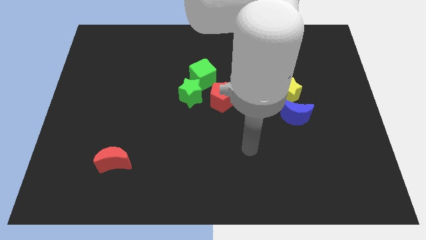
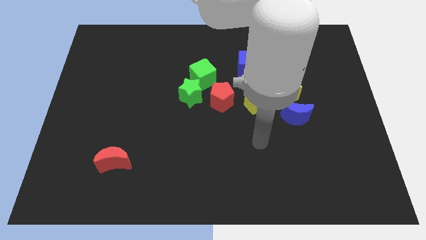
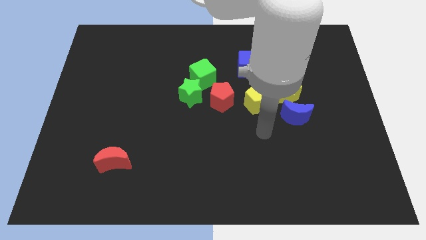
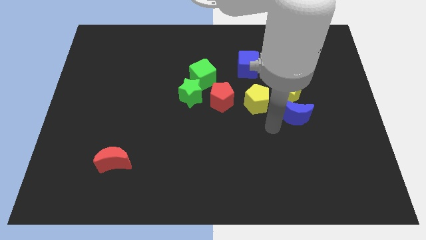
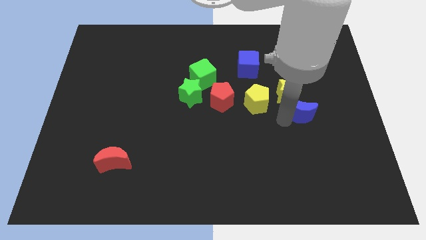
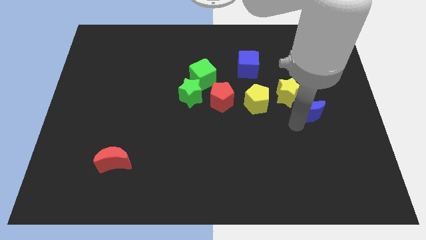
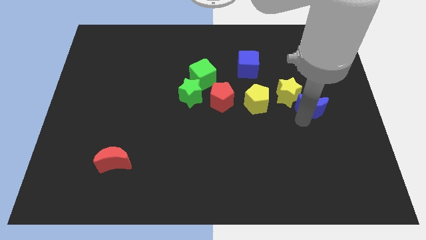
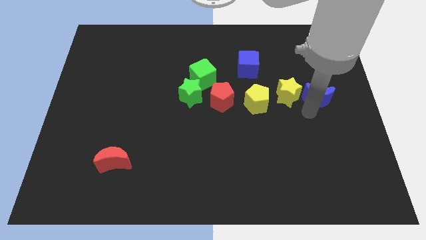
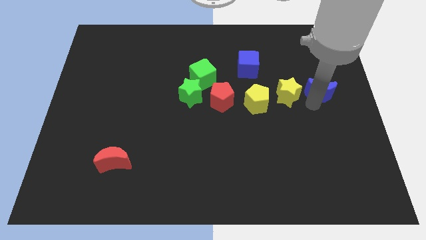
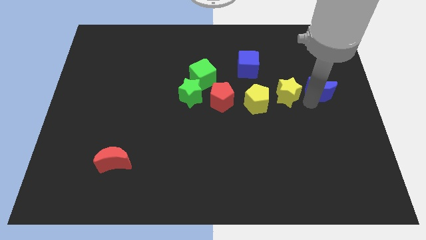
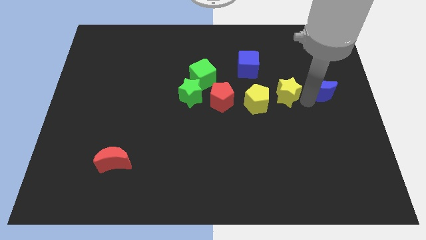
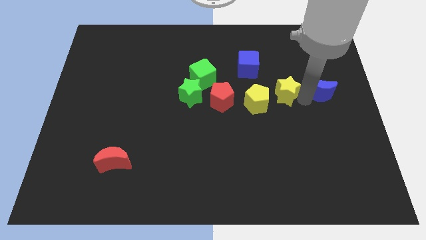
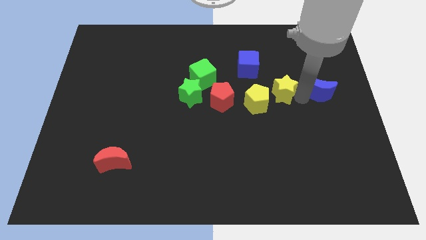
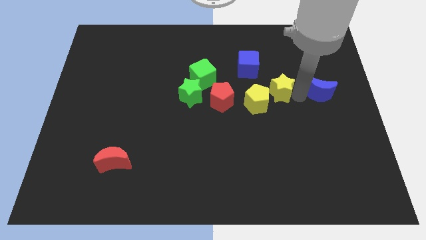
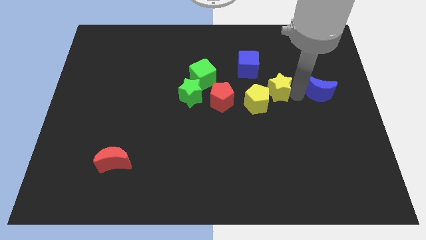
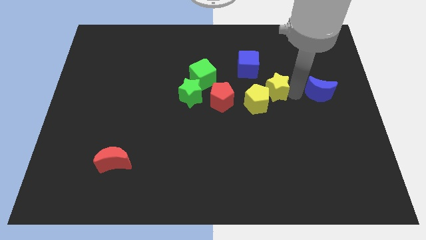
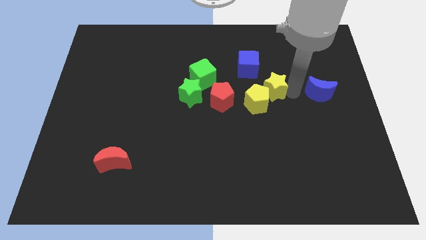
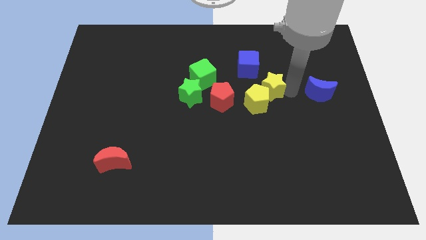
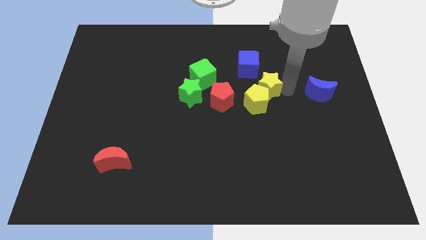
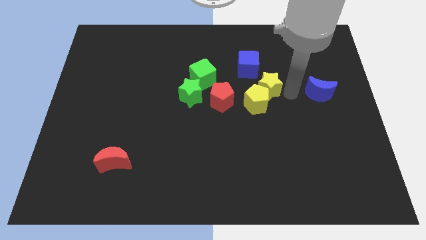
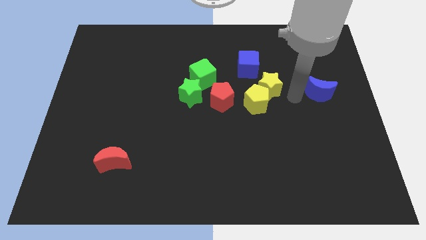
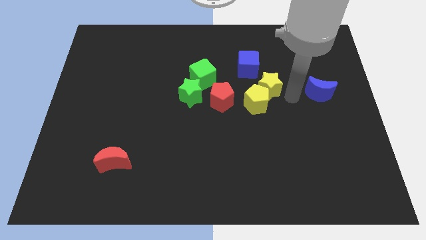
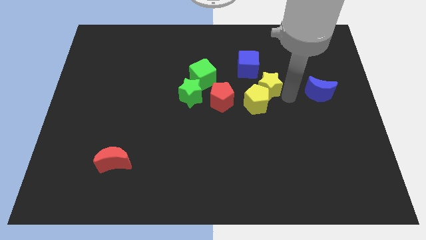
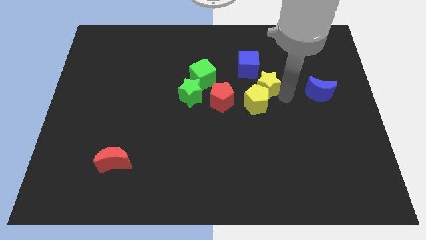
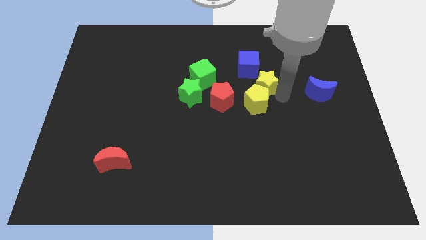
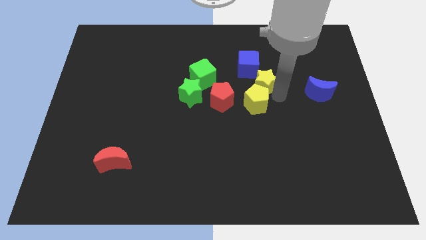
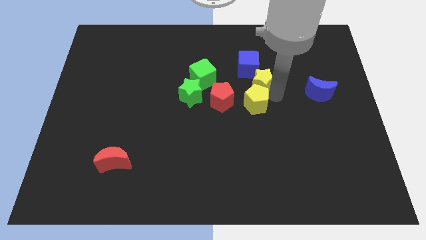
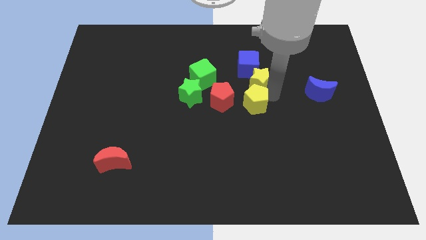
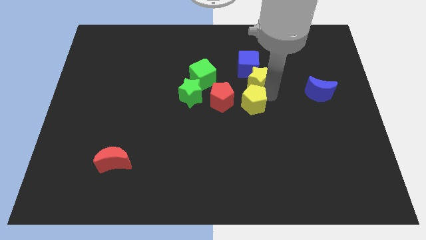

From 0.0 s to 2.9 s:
push the yellow star diagonally up and to the left slightly

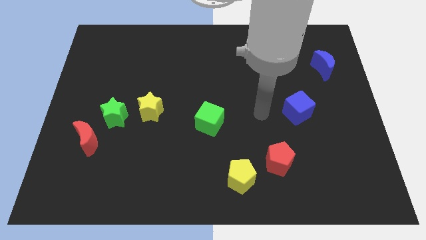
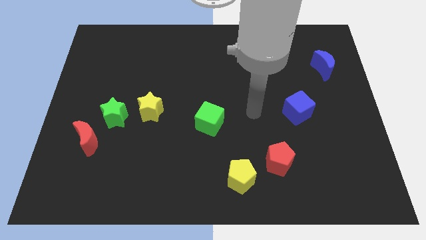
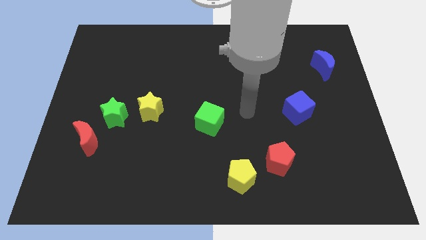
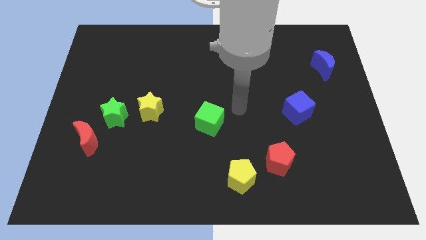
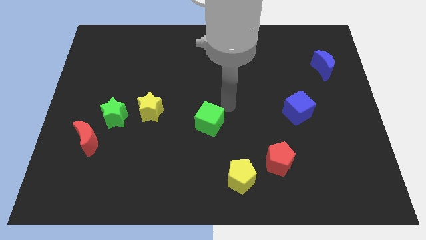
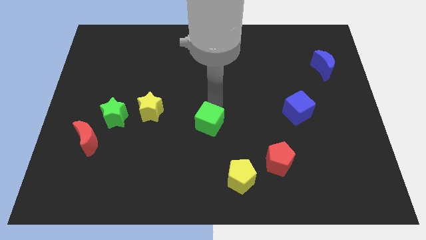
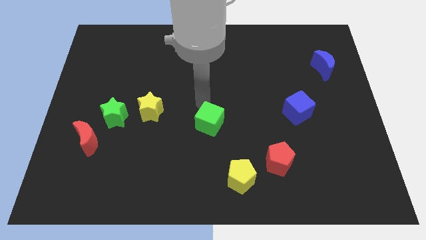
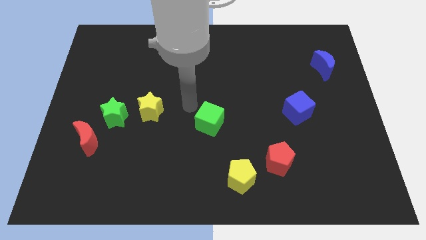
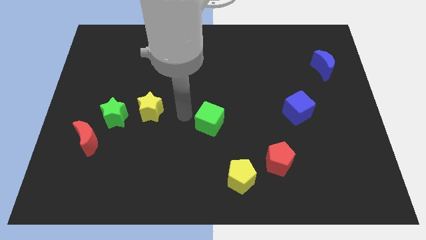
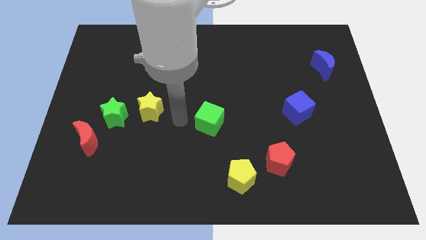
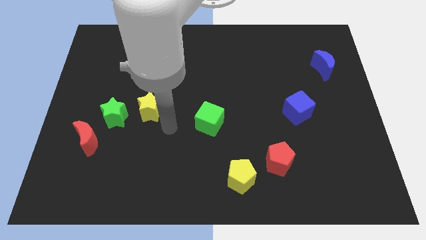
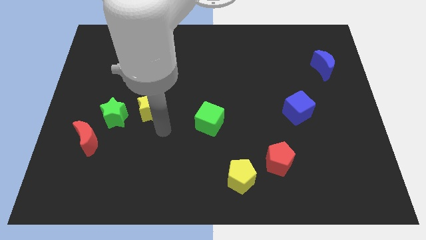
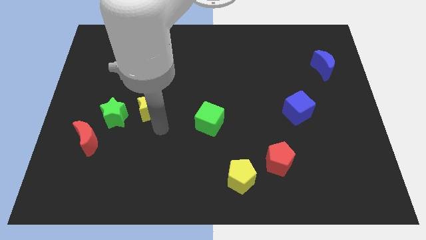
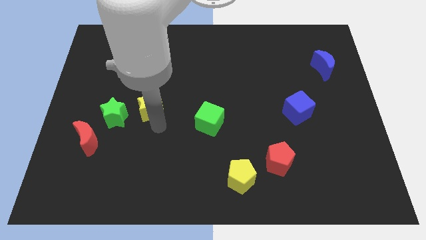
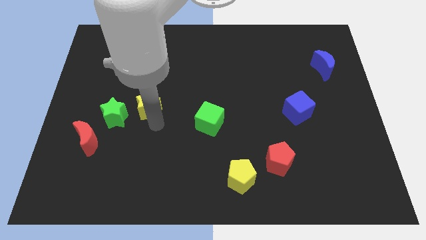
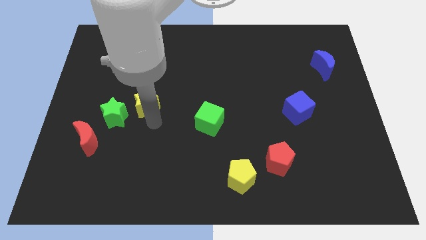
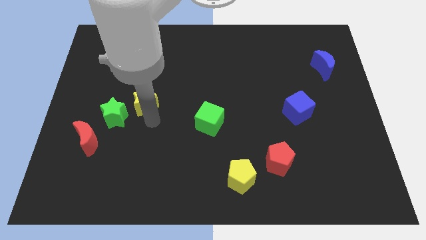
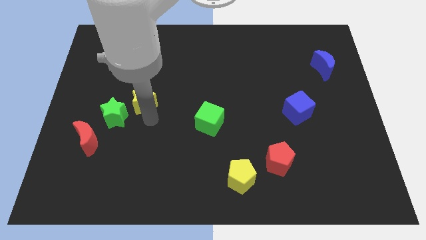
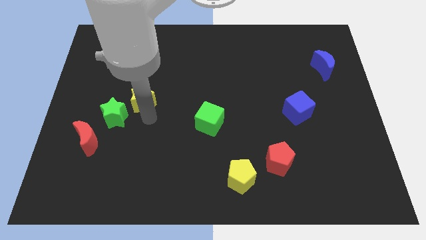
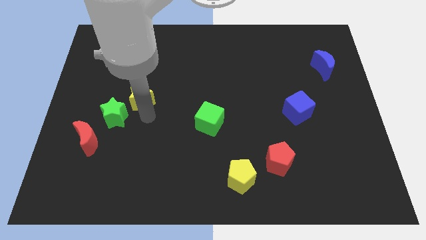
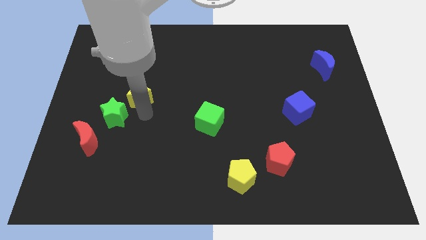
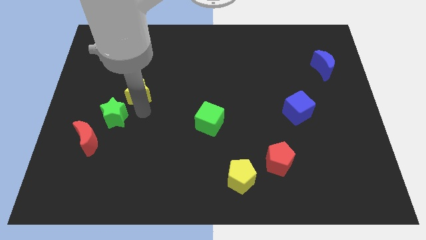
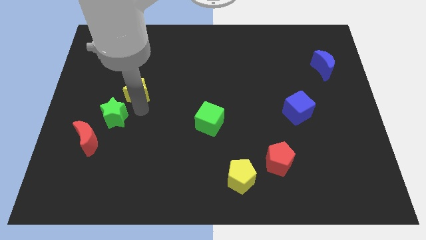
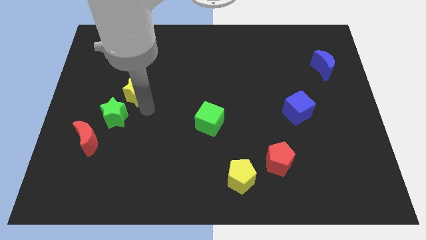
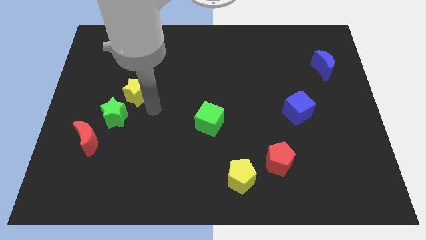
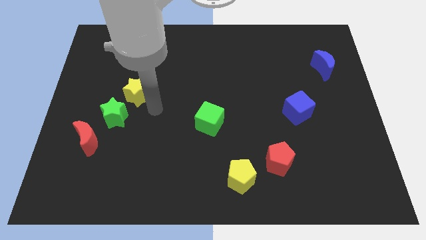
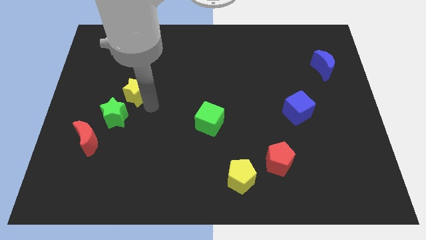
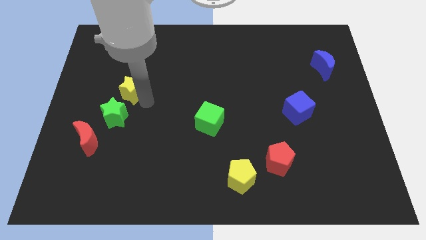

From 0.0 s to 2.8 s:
move the yellow star a little bit up and to the left

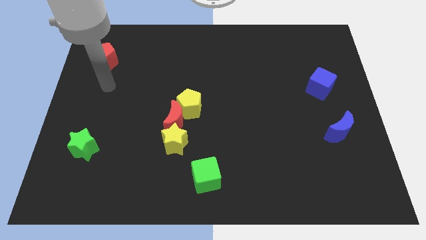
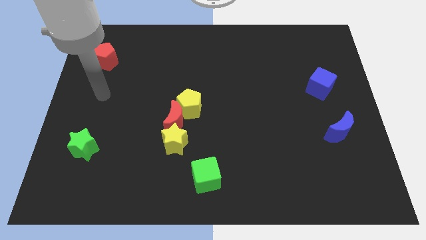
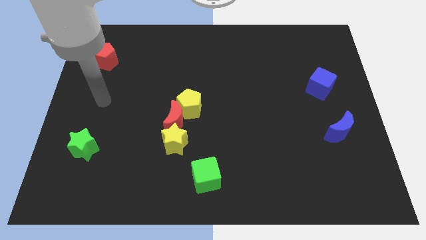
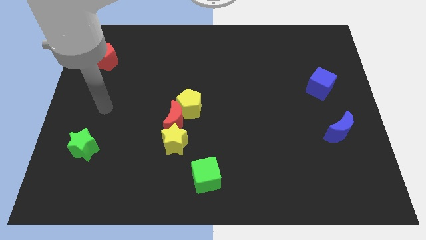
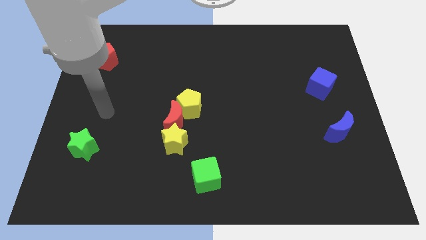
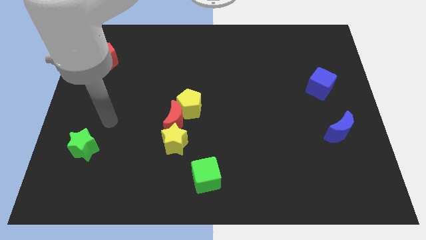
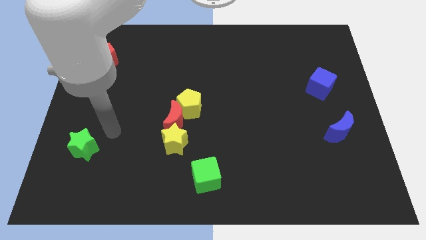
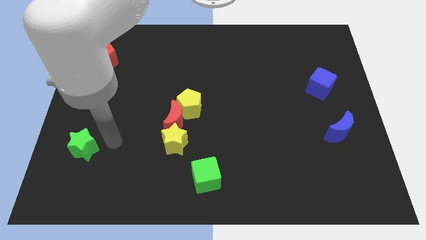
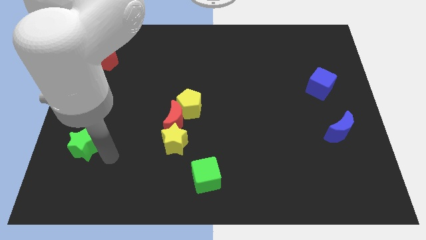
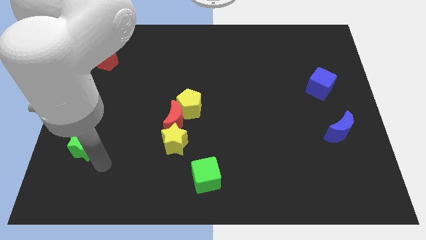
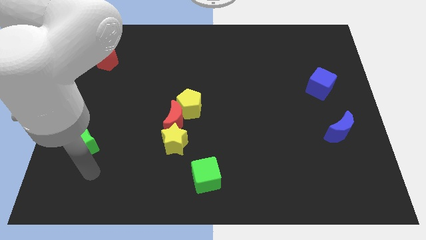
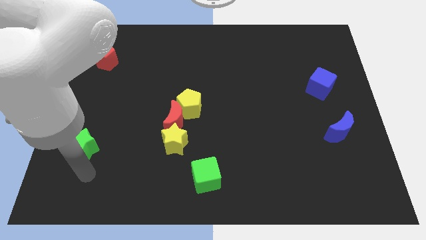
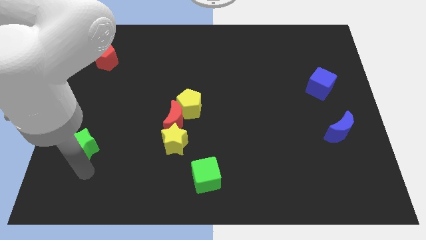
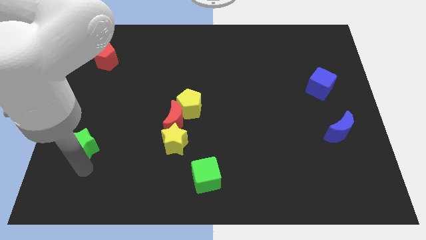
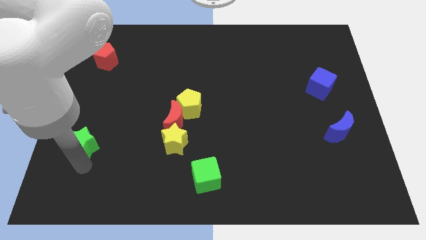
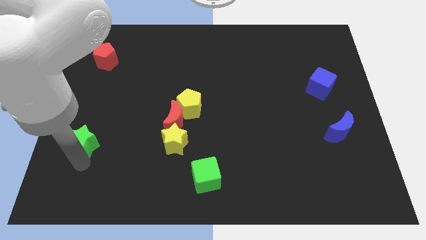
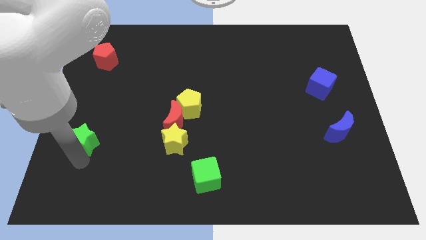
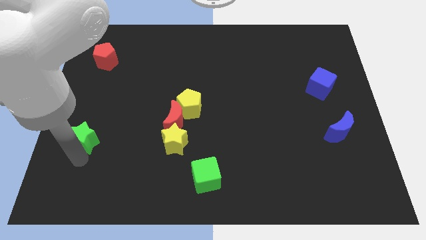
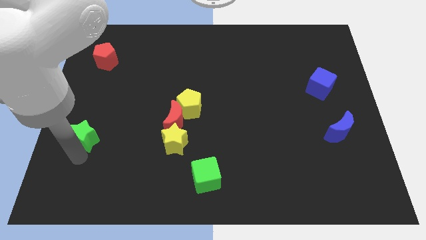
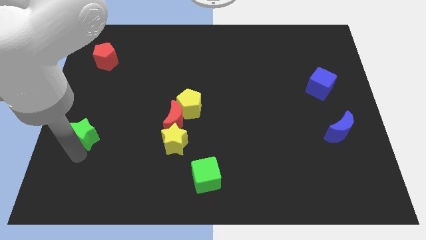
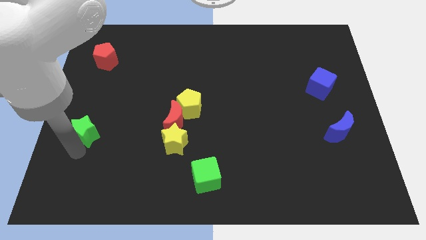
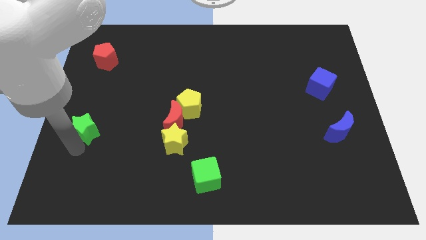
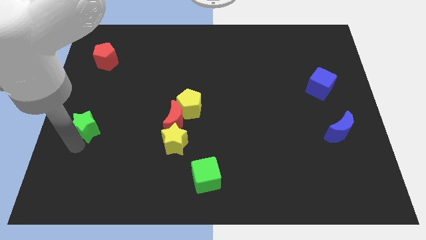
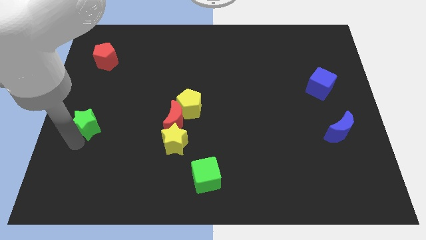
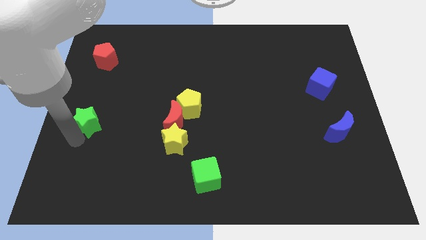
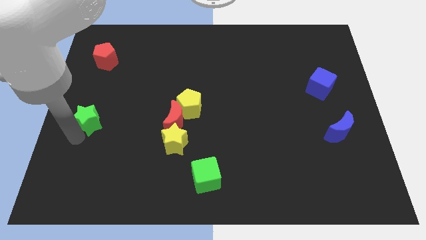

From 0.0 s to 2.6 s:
slightly push the green star upwards
